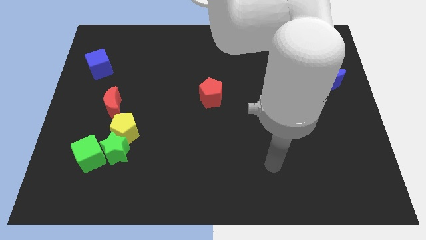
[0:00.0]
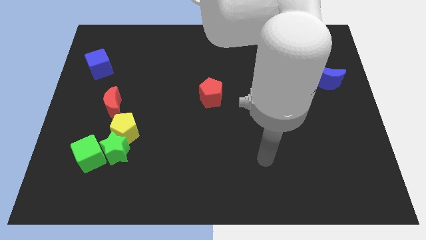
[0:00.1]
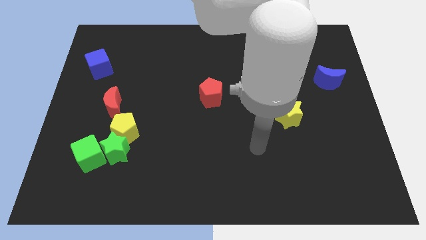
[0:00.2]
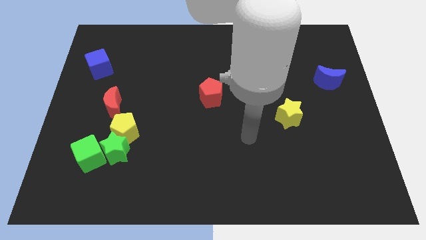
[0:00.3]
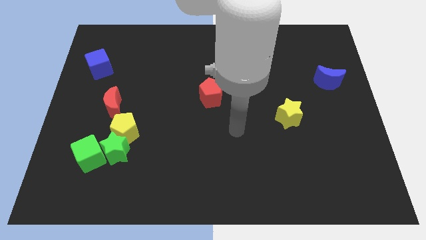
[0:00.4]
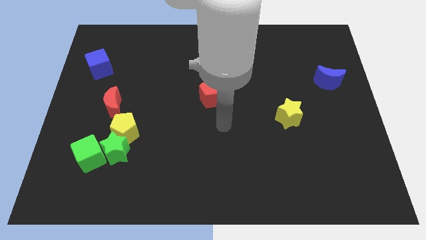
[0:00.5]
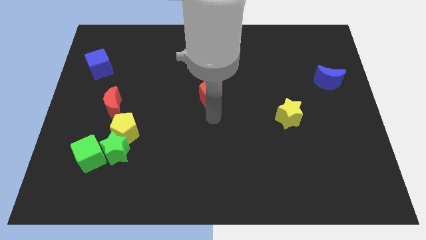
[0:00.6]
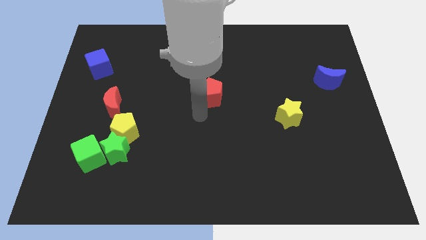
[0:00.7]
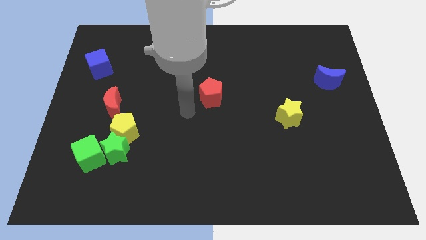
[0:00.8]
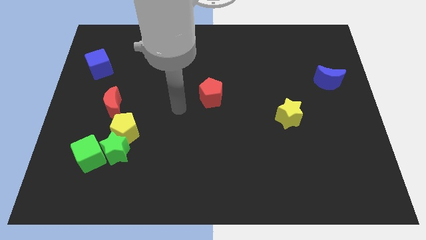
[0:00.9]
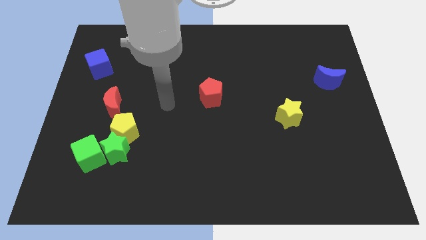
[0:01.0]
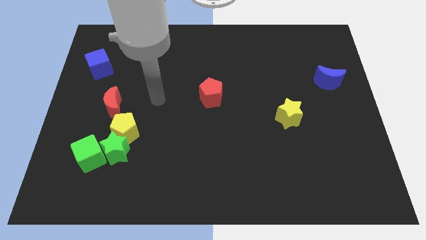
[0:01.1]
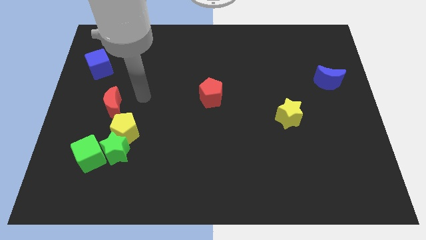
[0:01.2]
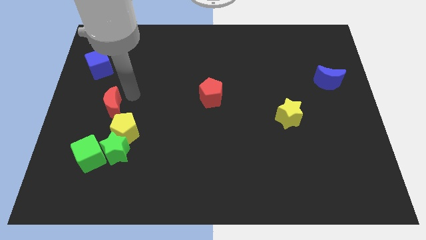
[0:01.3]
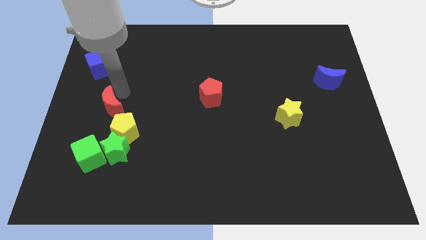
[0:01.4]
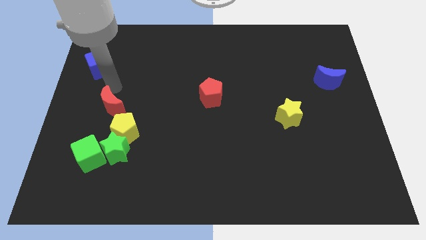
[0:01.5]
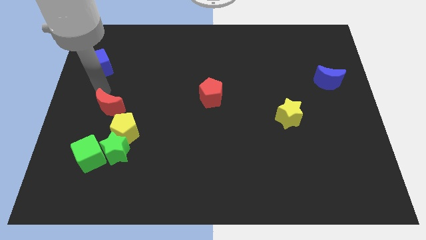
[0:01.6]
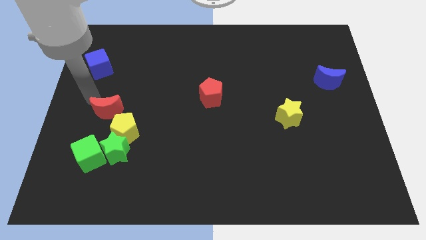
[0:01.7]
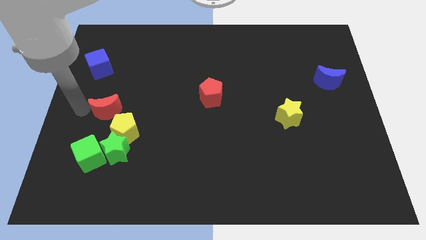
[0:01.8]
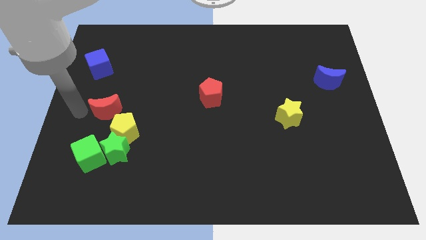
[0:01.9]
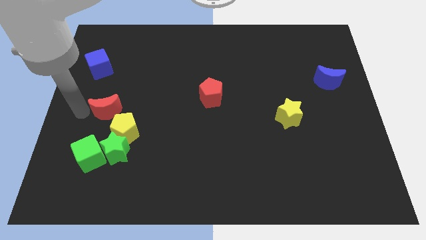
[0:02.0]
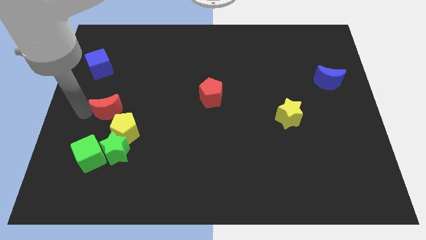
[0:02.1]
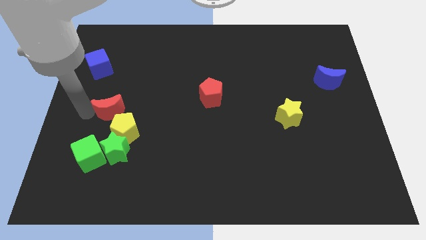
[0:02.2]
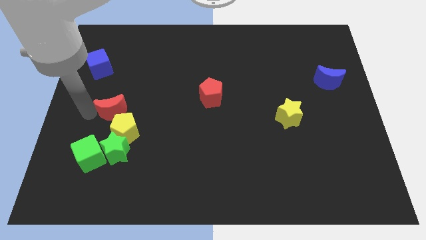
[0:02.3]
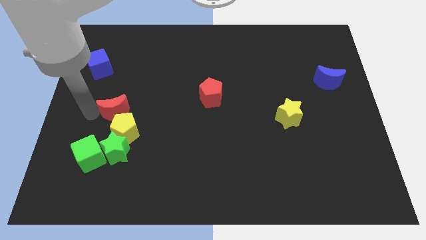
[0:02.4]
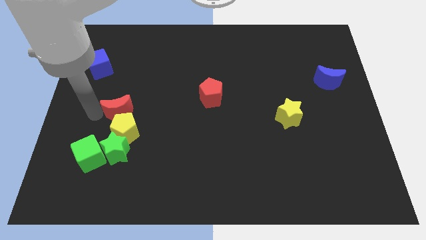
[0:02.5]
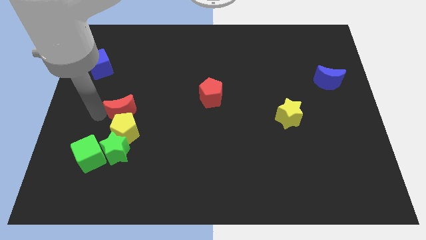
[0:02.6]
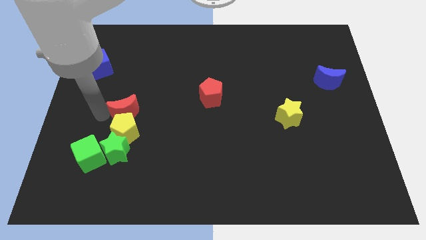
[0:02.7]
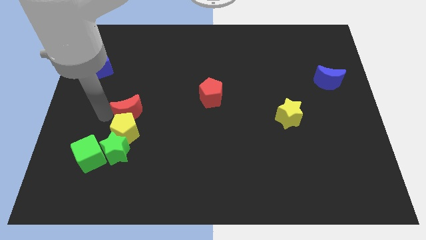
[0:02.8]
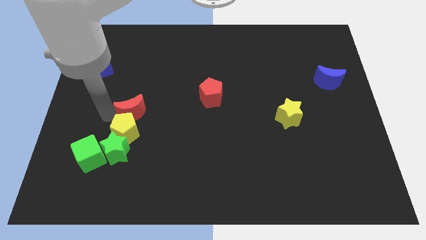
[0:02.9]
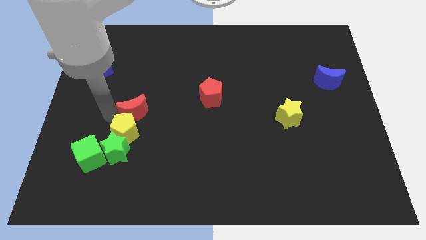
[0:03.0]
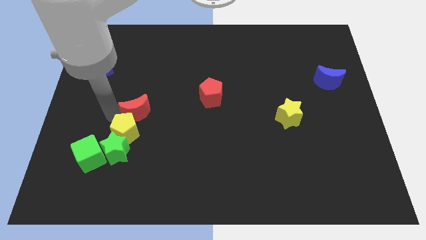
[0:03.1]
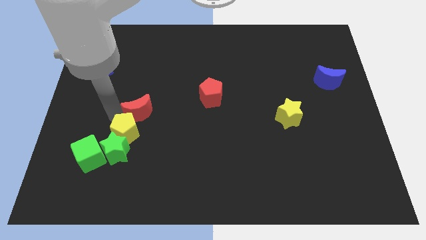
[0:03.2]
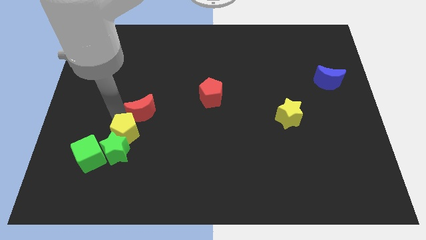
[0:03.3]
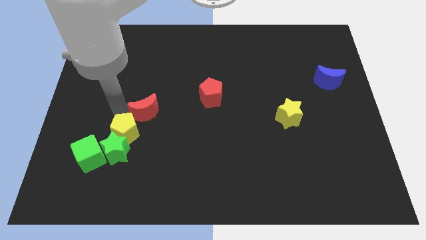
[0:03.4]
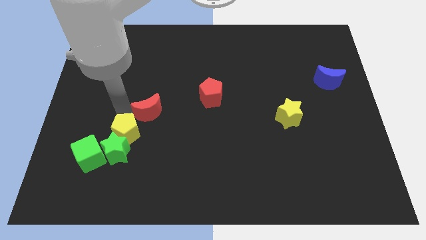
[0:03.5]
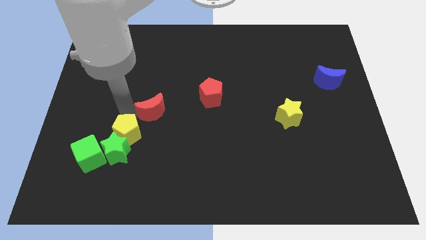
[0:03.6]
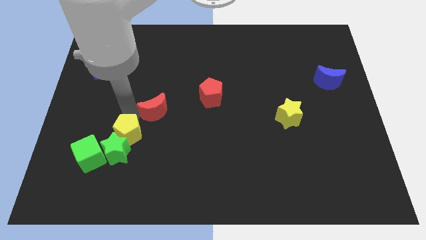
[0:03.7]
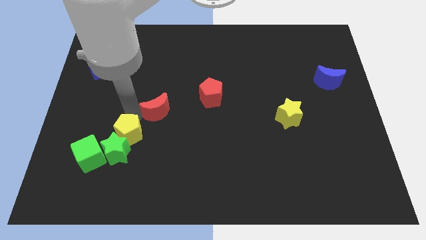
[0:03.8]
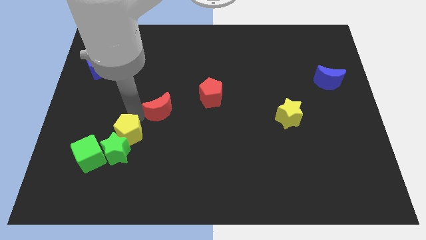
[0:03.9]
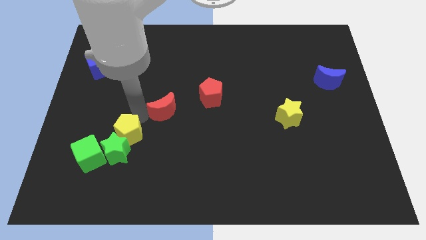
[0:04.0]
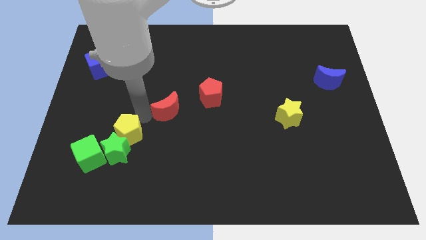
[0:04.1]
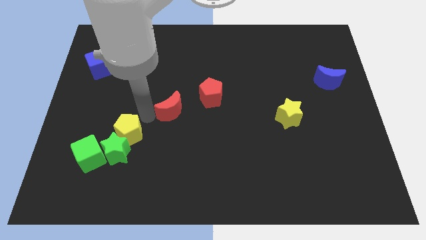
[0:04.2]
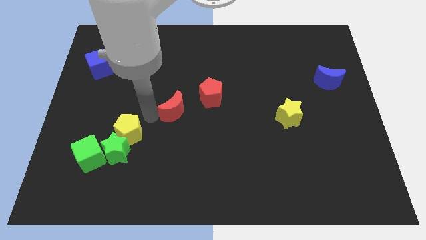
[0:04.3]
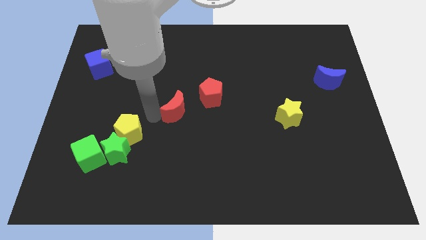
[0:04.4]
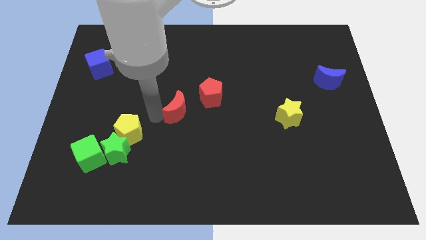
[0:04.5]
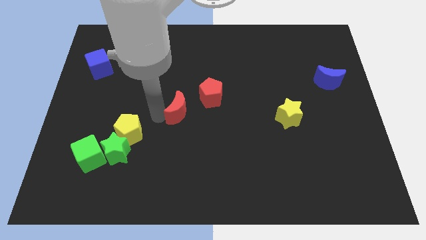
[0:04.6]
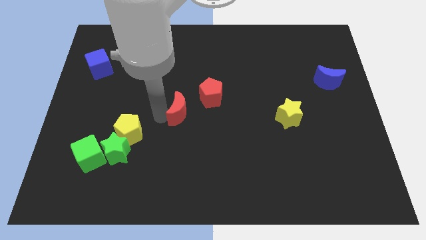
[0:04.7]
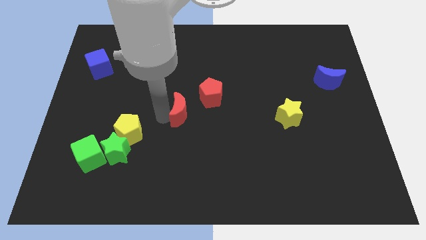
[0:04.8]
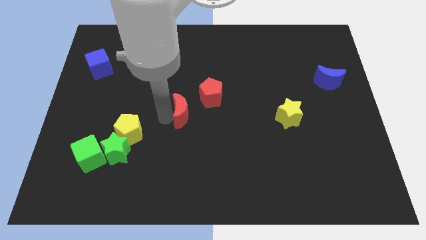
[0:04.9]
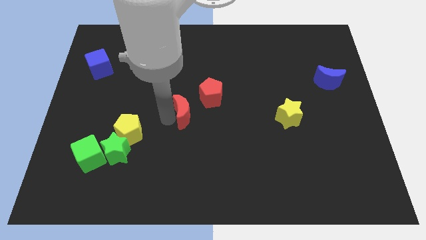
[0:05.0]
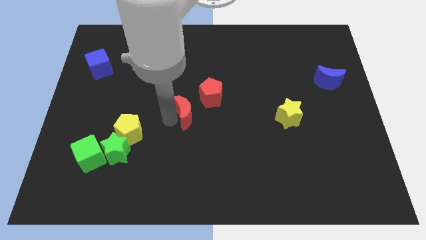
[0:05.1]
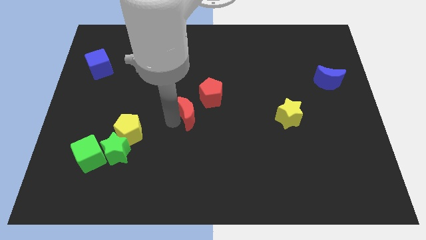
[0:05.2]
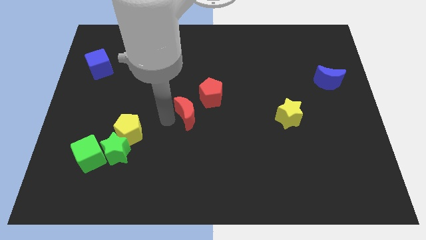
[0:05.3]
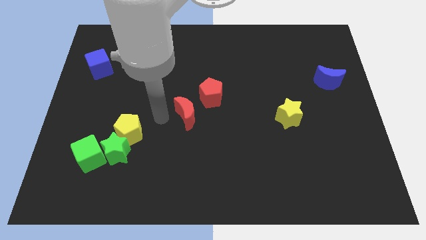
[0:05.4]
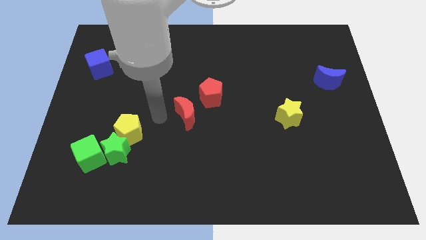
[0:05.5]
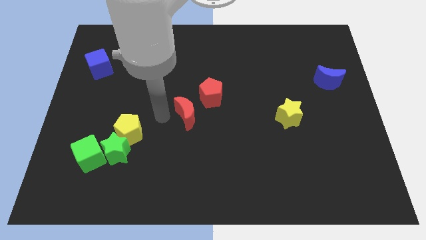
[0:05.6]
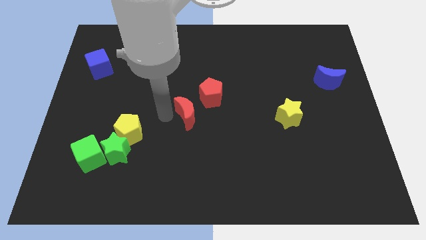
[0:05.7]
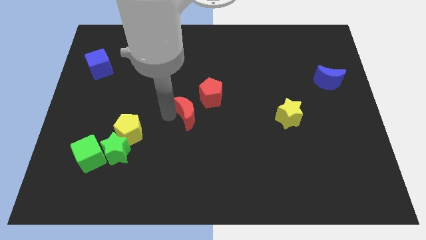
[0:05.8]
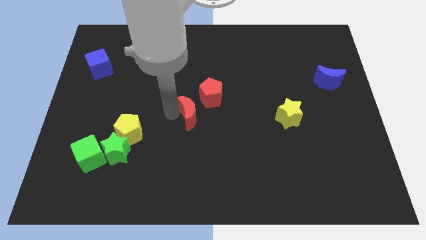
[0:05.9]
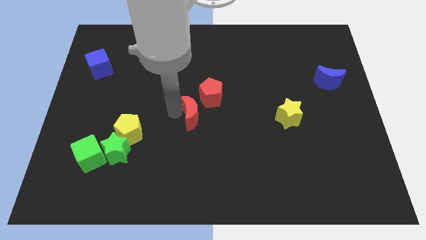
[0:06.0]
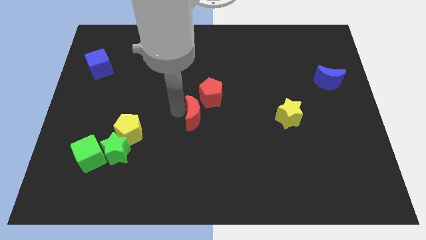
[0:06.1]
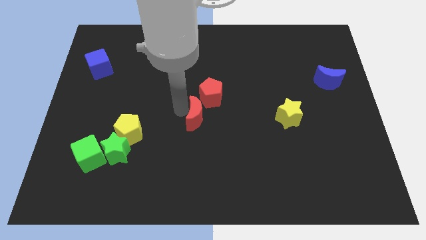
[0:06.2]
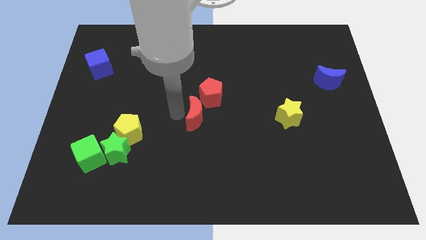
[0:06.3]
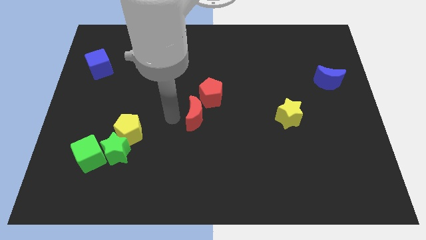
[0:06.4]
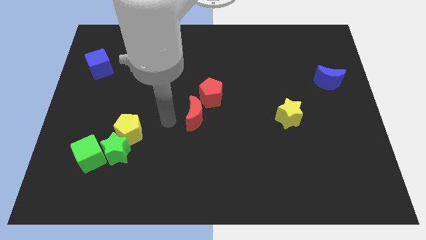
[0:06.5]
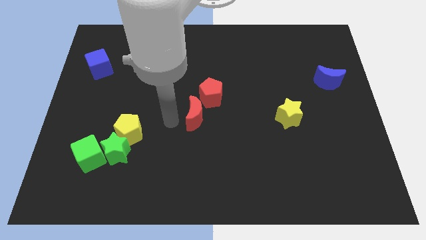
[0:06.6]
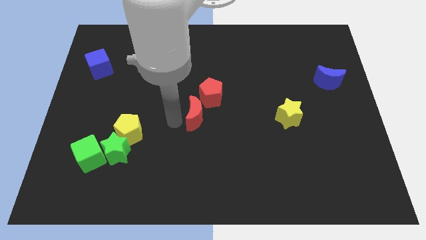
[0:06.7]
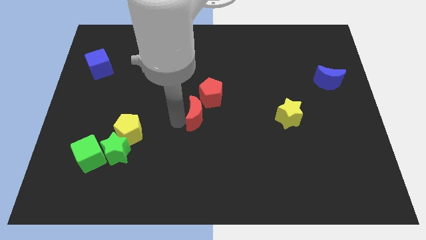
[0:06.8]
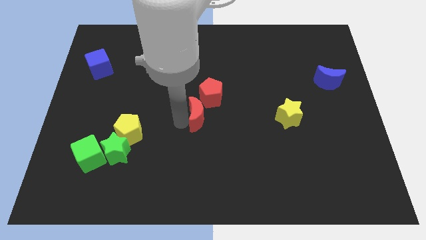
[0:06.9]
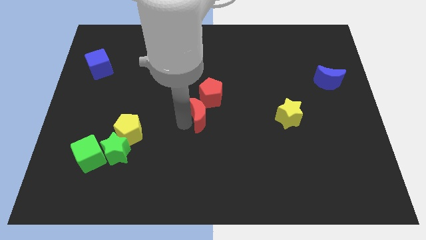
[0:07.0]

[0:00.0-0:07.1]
move the red moon to the right

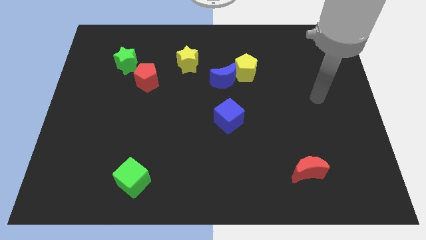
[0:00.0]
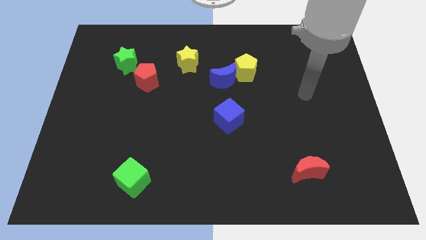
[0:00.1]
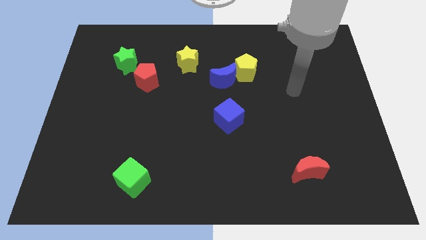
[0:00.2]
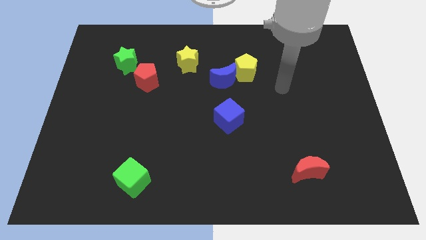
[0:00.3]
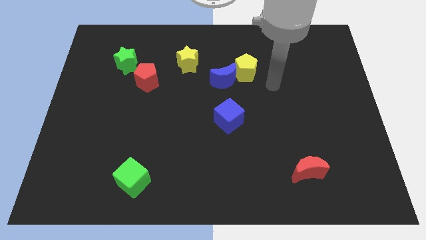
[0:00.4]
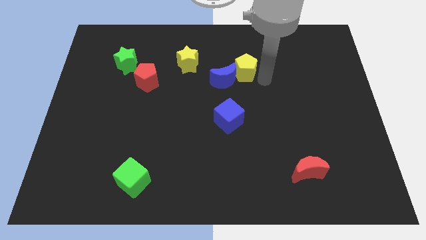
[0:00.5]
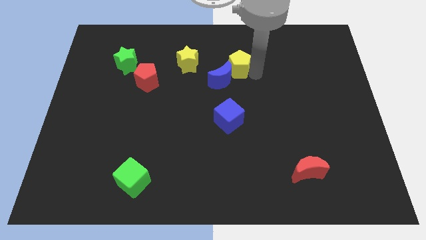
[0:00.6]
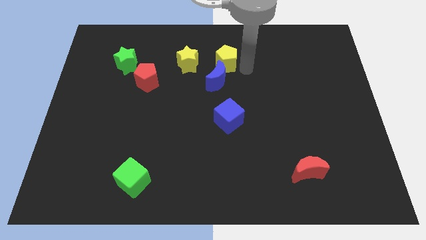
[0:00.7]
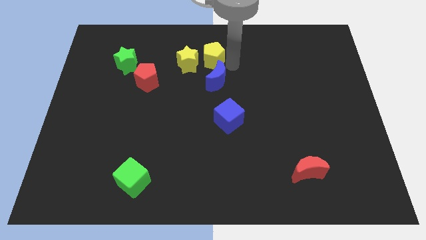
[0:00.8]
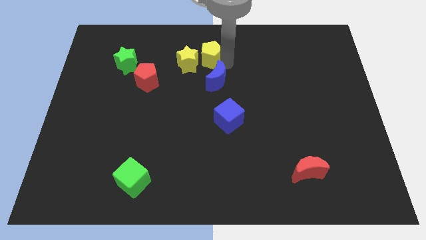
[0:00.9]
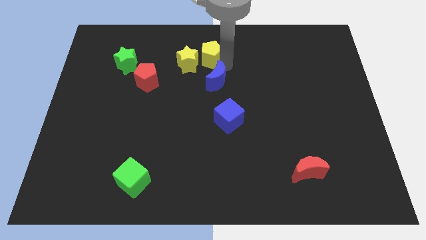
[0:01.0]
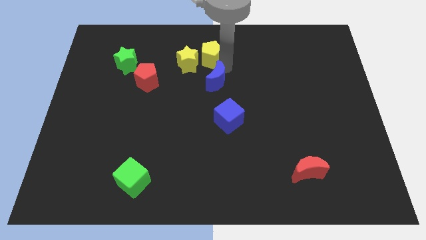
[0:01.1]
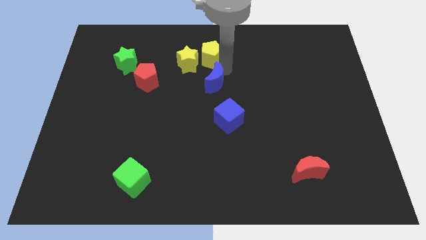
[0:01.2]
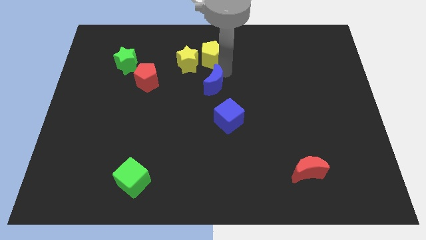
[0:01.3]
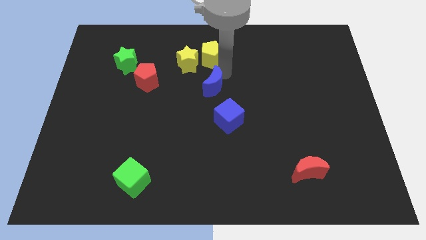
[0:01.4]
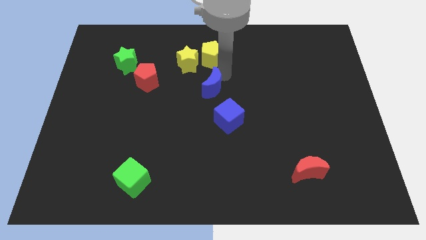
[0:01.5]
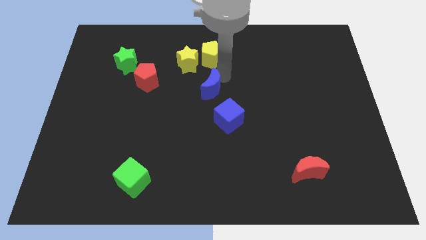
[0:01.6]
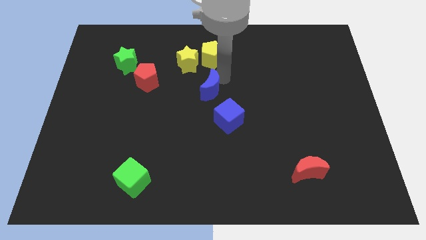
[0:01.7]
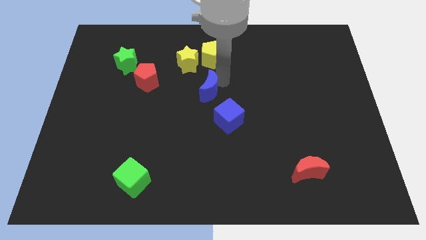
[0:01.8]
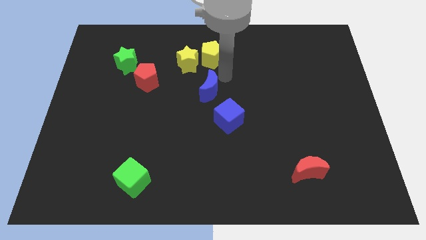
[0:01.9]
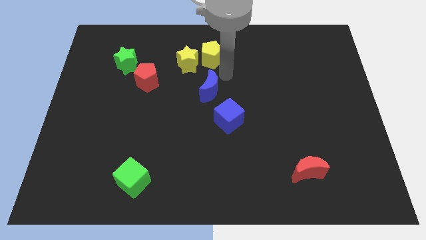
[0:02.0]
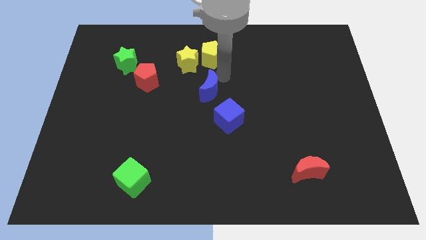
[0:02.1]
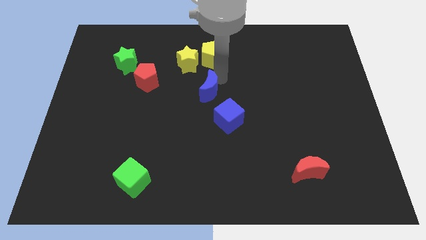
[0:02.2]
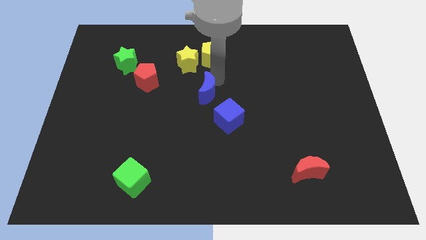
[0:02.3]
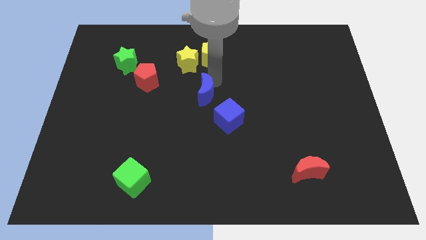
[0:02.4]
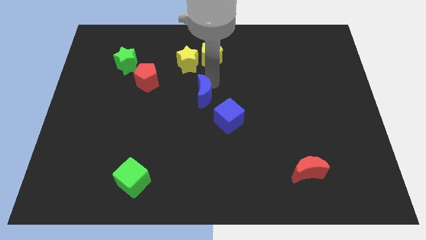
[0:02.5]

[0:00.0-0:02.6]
slightly move the blue moon down and to the left diagonally
